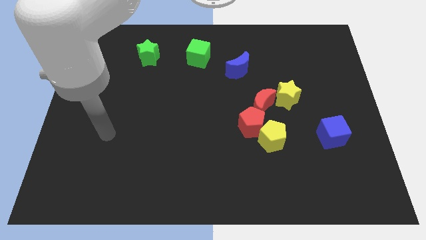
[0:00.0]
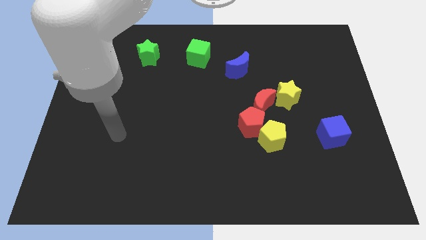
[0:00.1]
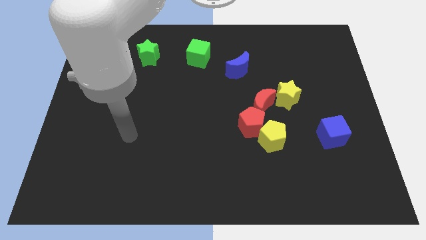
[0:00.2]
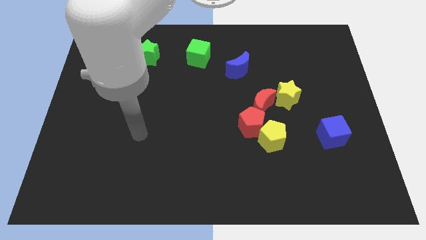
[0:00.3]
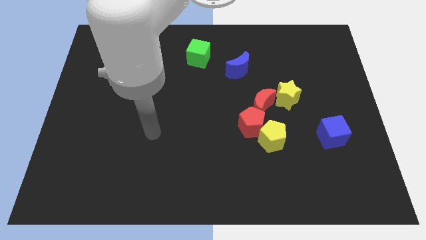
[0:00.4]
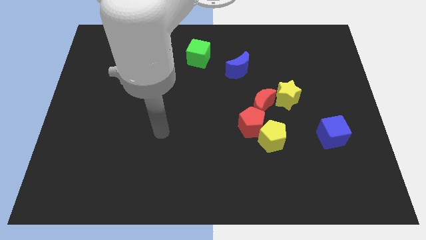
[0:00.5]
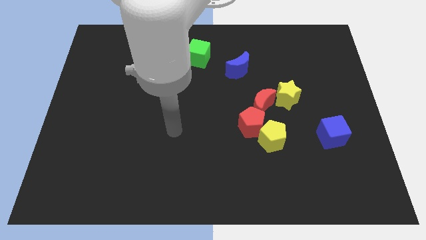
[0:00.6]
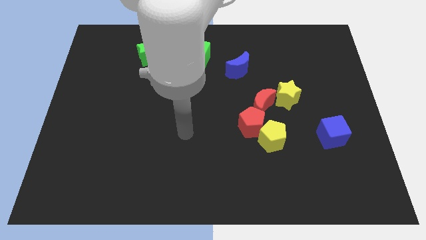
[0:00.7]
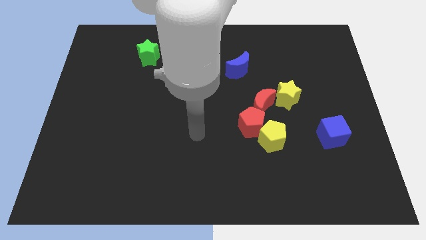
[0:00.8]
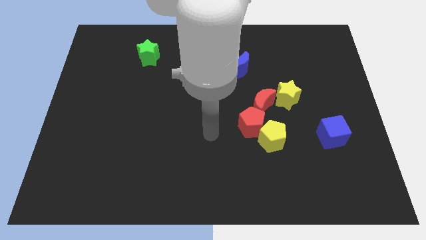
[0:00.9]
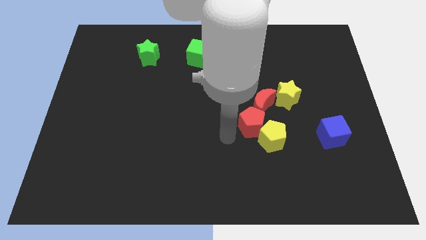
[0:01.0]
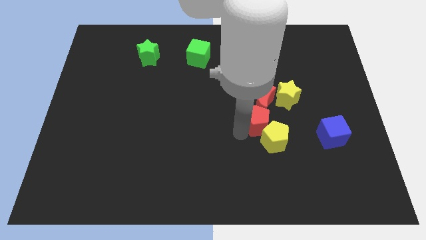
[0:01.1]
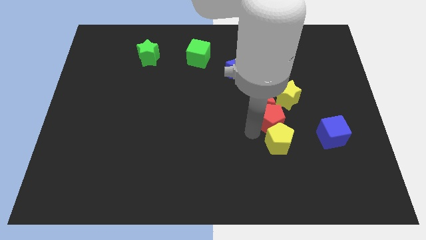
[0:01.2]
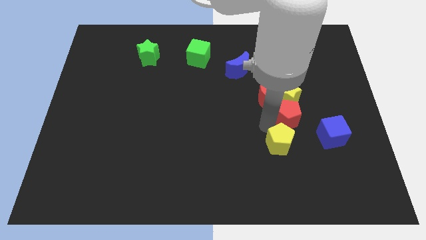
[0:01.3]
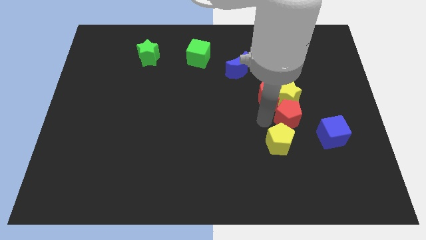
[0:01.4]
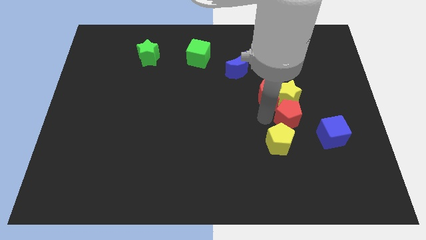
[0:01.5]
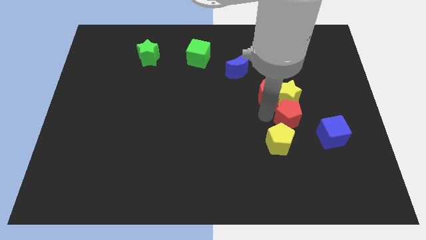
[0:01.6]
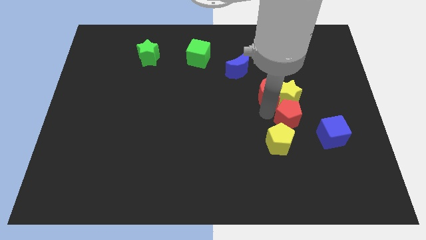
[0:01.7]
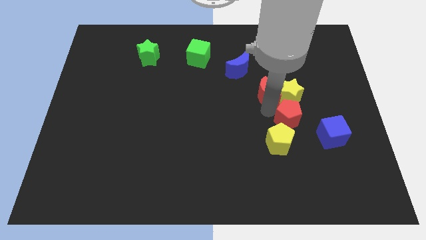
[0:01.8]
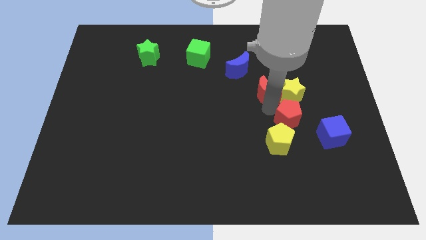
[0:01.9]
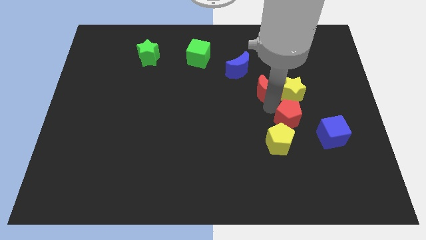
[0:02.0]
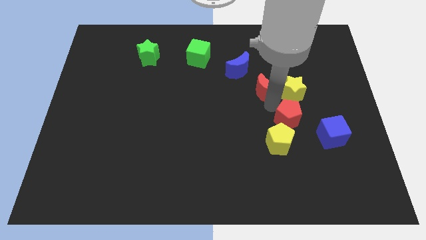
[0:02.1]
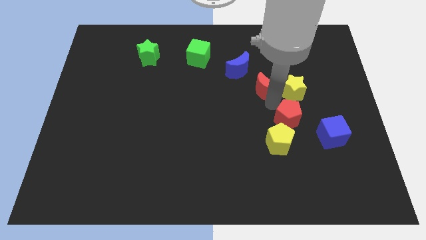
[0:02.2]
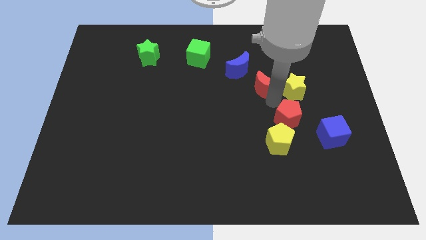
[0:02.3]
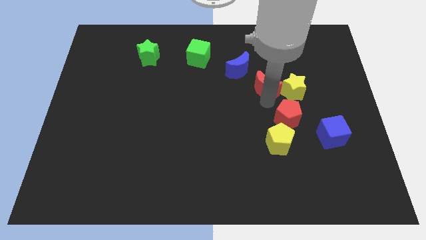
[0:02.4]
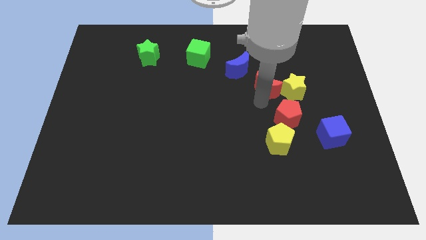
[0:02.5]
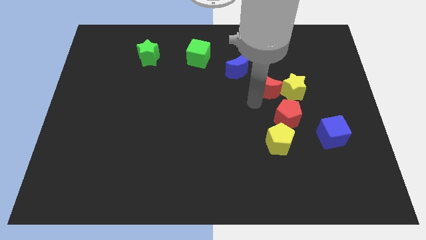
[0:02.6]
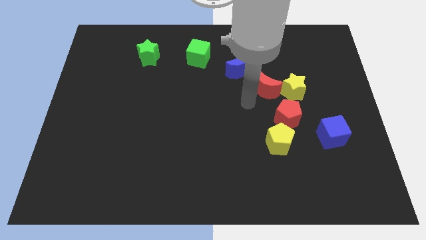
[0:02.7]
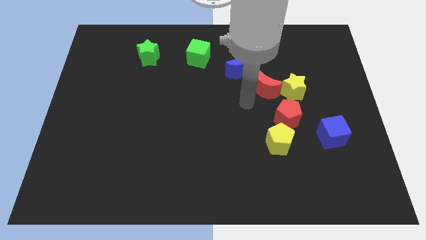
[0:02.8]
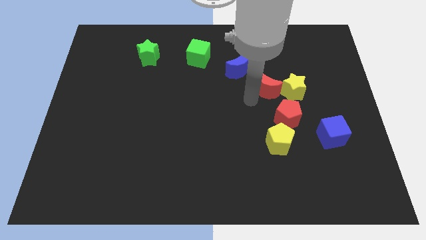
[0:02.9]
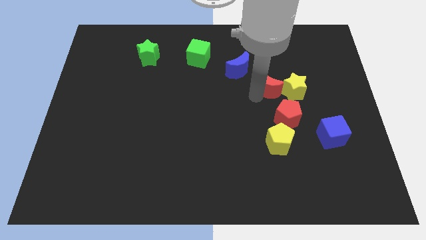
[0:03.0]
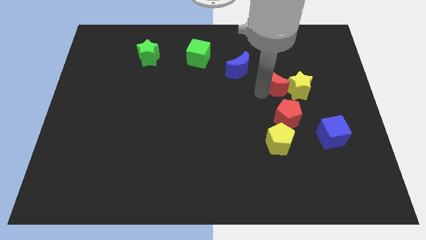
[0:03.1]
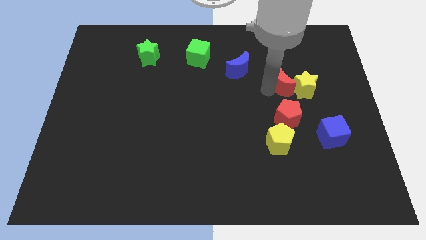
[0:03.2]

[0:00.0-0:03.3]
slightly push the red moon upwards and to the right diagonally

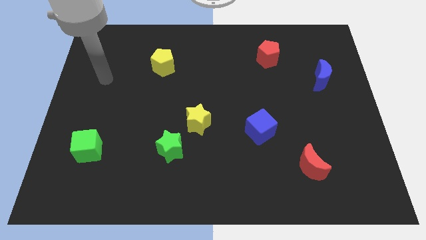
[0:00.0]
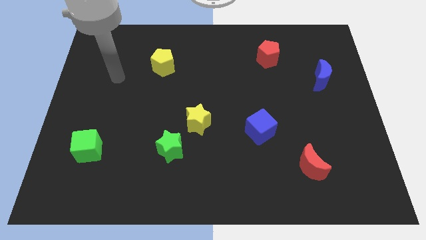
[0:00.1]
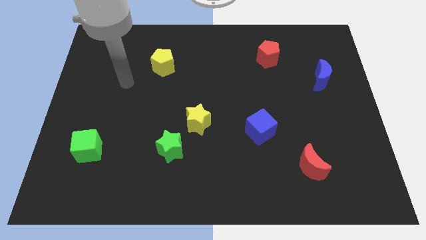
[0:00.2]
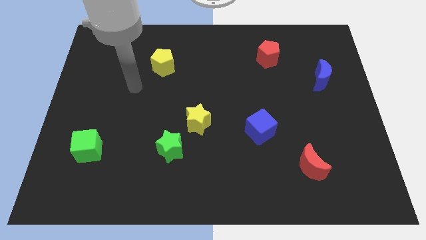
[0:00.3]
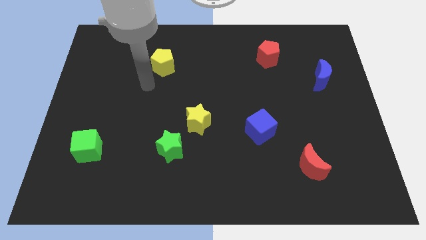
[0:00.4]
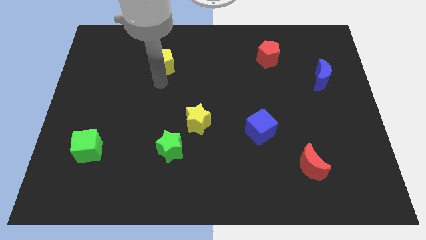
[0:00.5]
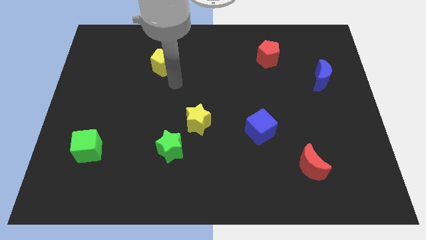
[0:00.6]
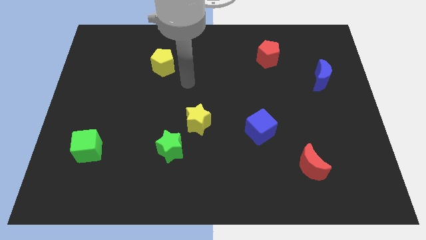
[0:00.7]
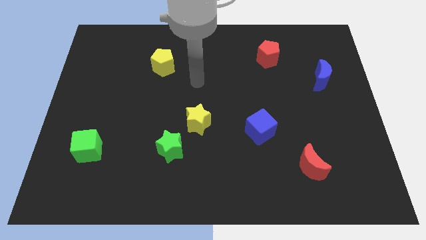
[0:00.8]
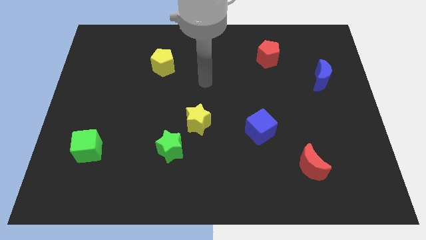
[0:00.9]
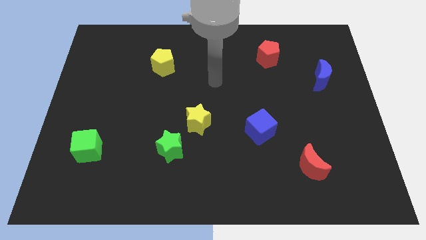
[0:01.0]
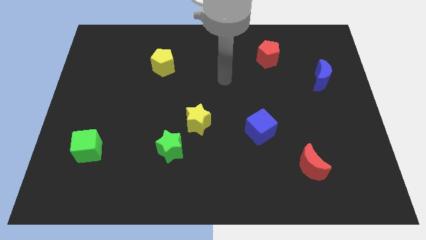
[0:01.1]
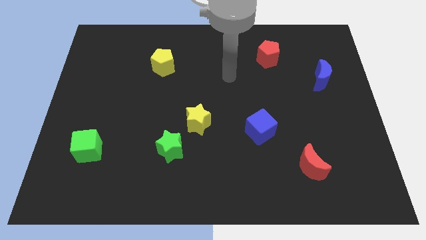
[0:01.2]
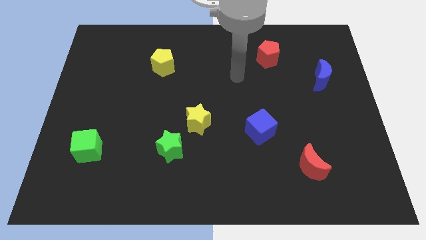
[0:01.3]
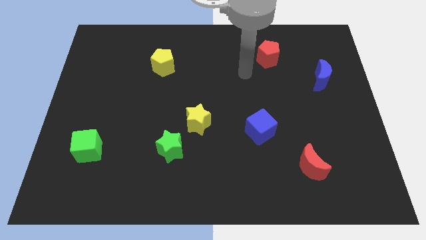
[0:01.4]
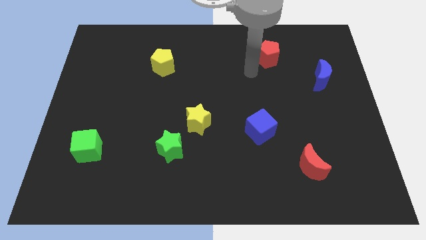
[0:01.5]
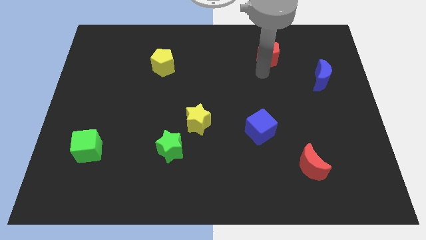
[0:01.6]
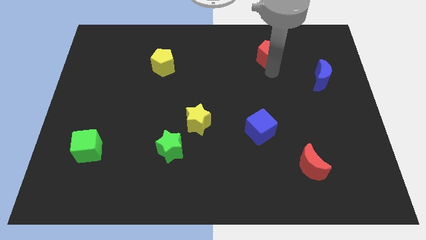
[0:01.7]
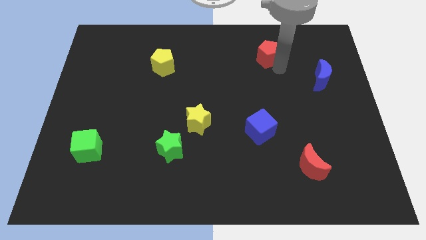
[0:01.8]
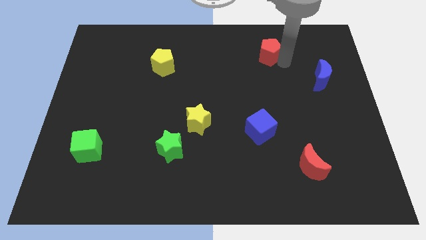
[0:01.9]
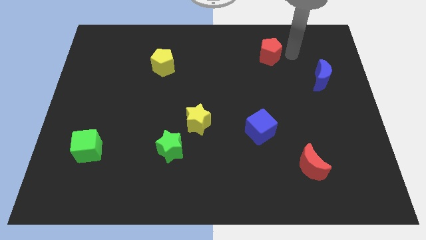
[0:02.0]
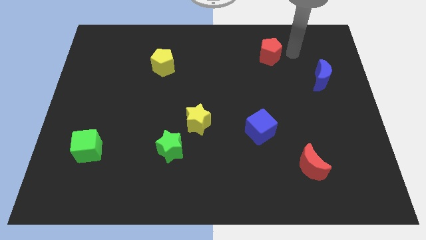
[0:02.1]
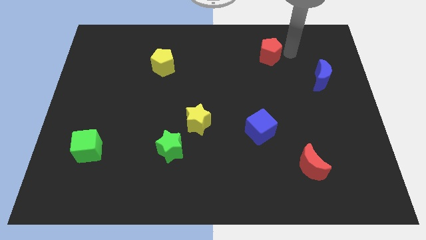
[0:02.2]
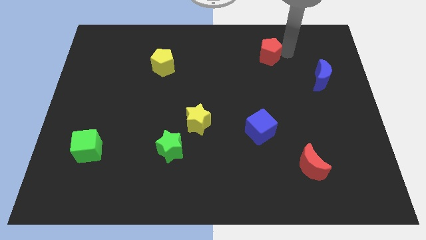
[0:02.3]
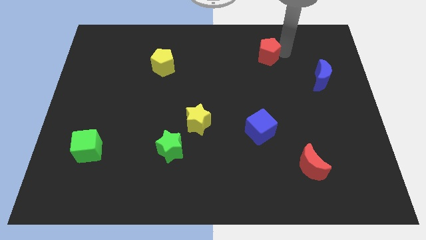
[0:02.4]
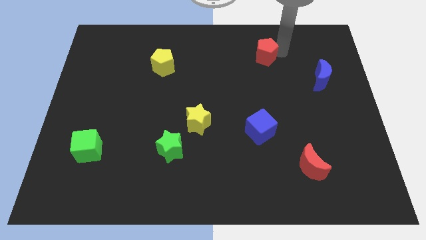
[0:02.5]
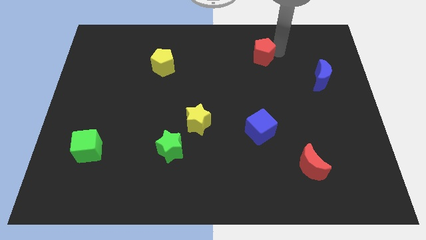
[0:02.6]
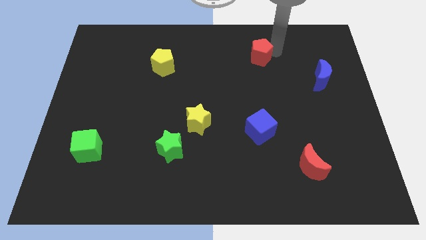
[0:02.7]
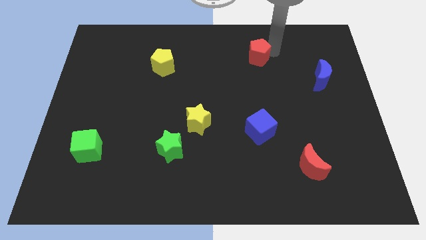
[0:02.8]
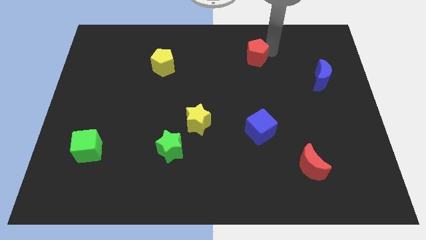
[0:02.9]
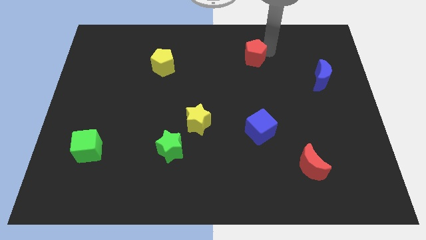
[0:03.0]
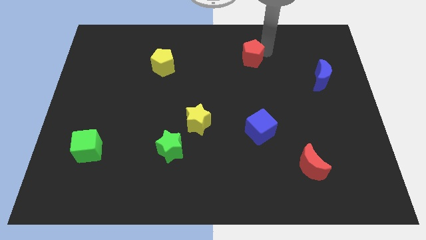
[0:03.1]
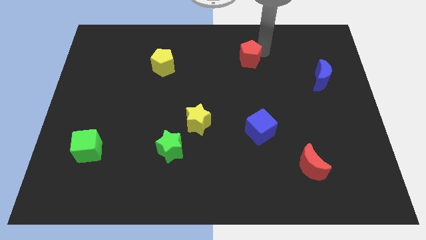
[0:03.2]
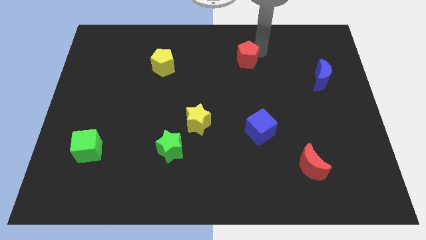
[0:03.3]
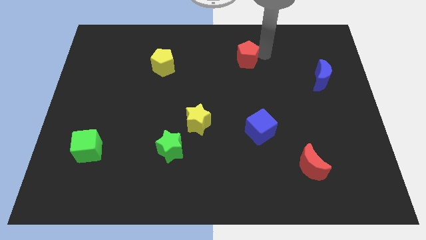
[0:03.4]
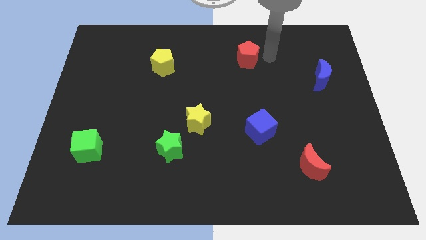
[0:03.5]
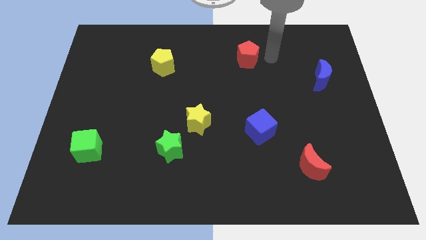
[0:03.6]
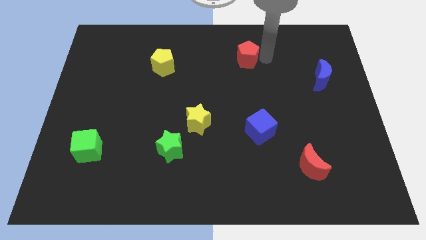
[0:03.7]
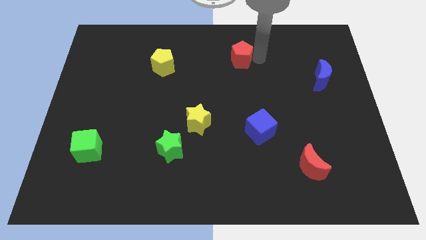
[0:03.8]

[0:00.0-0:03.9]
slightly push the red pentagon left

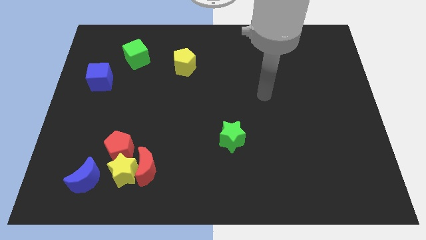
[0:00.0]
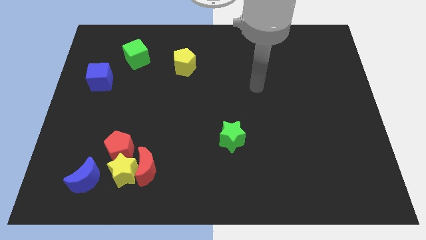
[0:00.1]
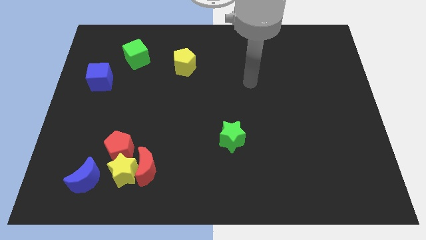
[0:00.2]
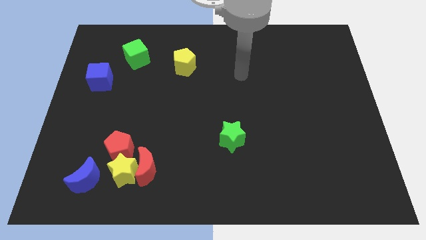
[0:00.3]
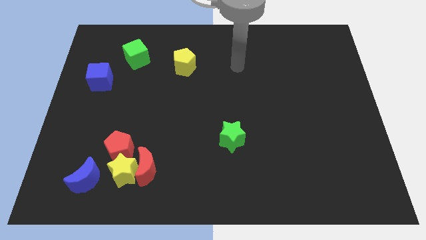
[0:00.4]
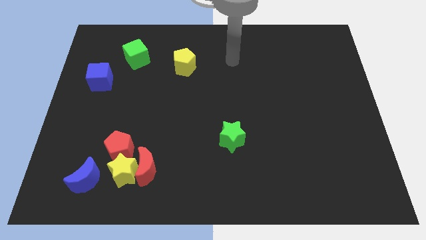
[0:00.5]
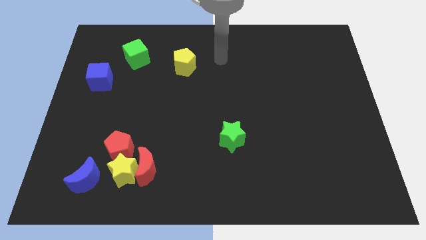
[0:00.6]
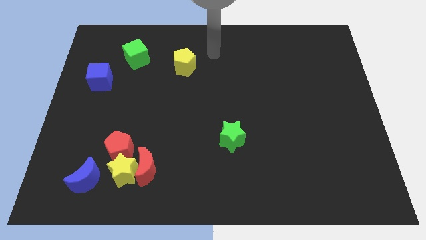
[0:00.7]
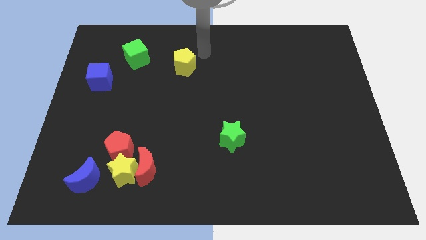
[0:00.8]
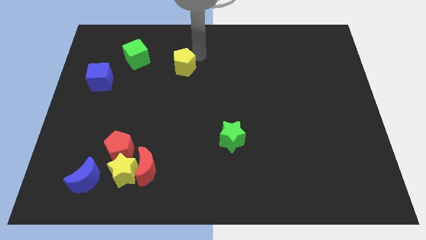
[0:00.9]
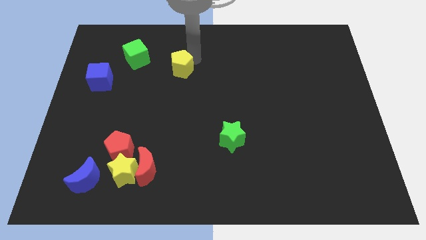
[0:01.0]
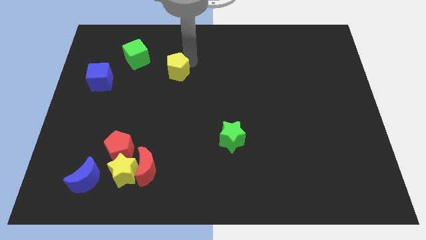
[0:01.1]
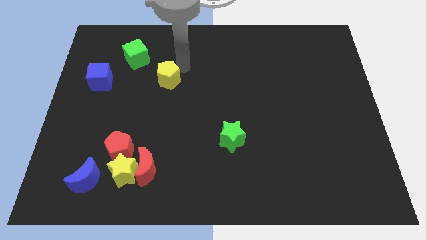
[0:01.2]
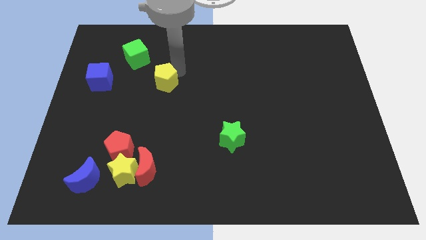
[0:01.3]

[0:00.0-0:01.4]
push the yellow pentagon downwards and then to the left a bit
